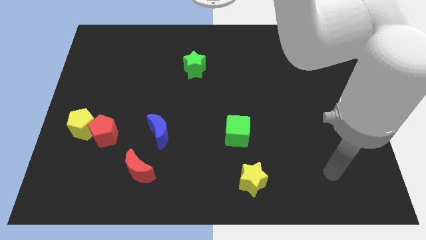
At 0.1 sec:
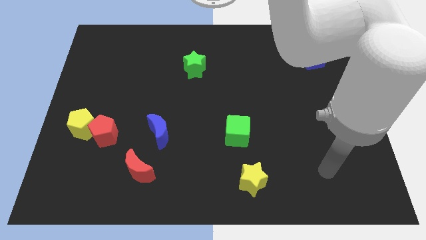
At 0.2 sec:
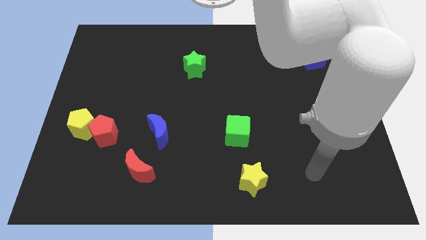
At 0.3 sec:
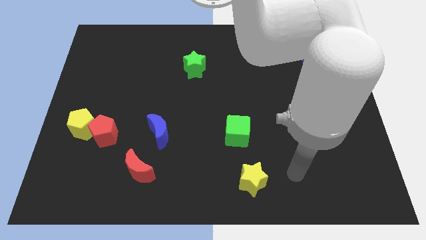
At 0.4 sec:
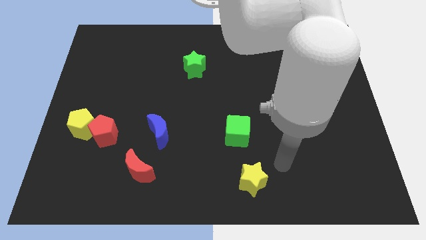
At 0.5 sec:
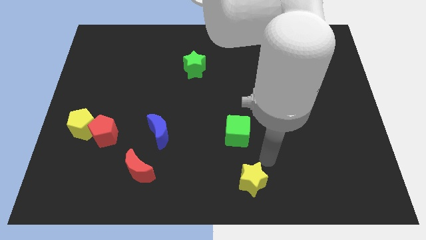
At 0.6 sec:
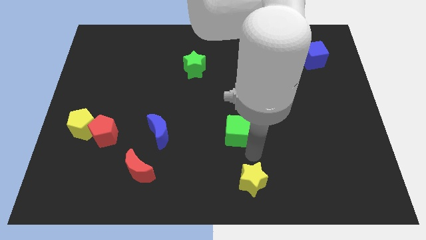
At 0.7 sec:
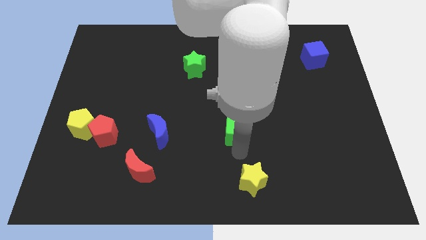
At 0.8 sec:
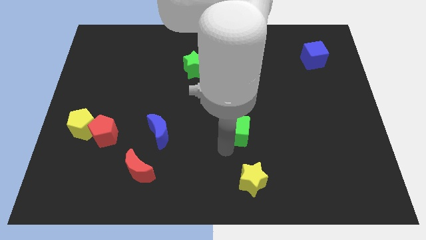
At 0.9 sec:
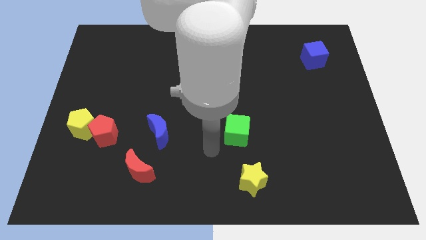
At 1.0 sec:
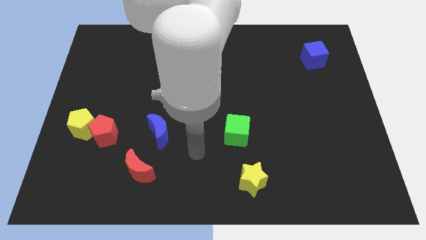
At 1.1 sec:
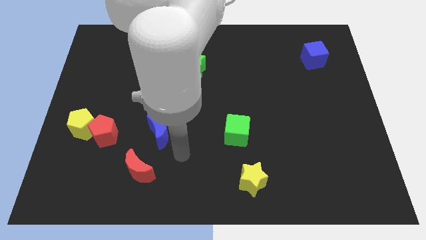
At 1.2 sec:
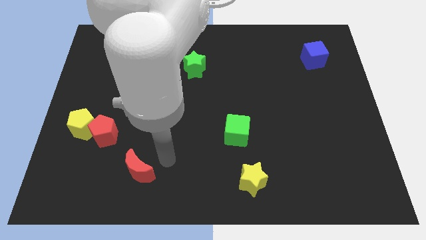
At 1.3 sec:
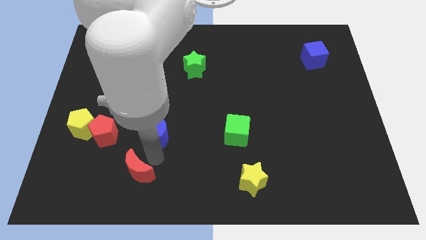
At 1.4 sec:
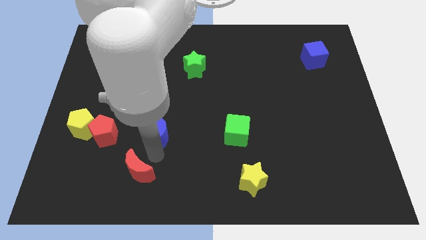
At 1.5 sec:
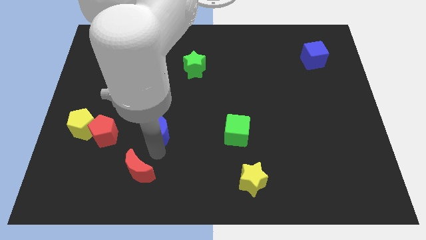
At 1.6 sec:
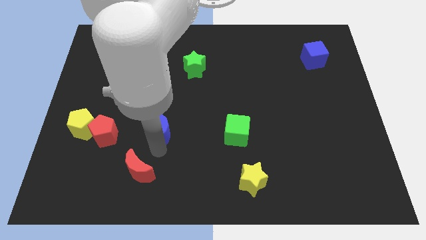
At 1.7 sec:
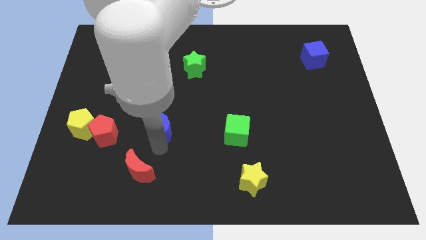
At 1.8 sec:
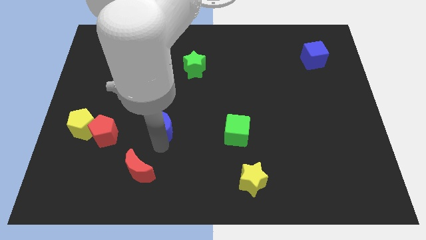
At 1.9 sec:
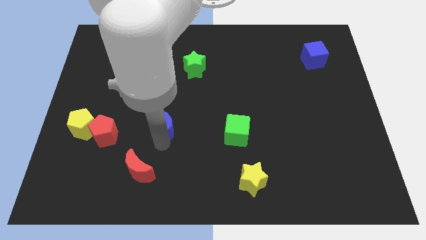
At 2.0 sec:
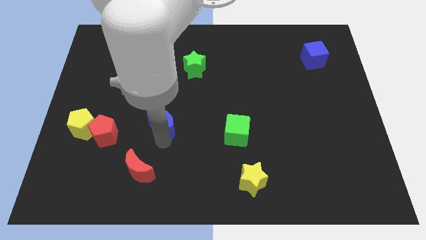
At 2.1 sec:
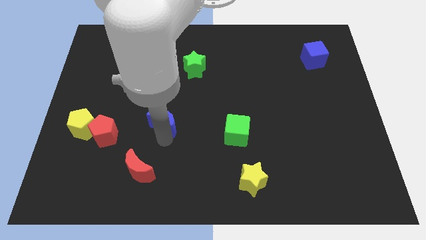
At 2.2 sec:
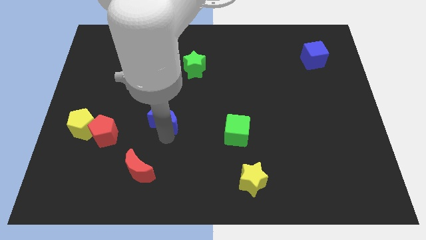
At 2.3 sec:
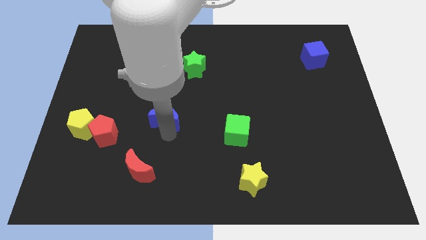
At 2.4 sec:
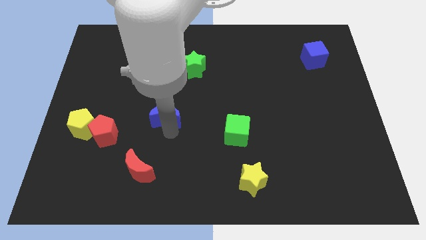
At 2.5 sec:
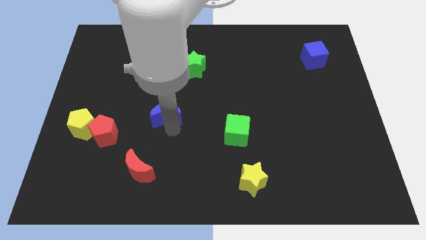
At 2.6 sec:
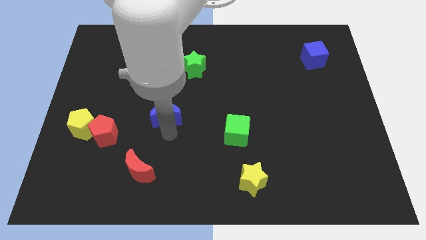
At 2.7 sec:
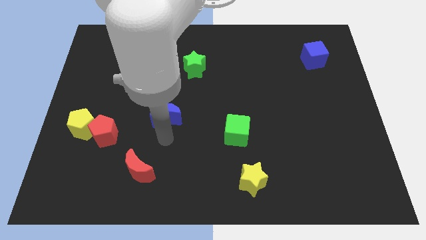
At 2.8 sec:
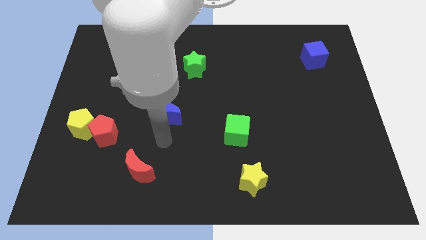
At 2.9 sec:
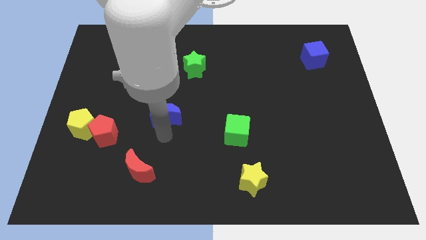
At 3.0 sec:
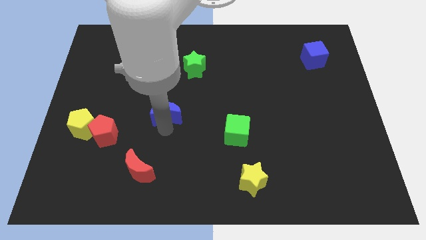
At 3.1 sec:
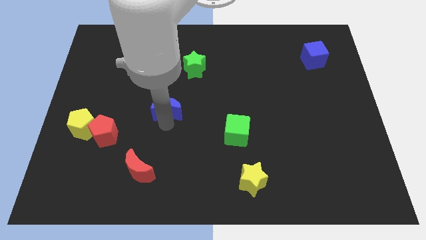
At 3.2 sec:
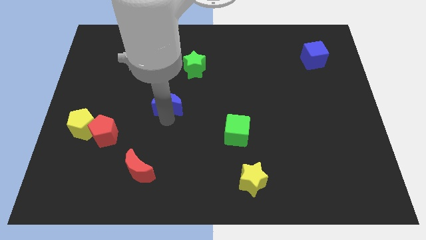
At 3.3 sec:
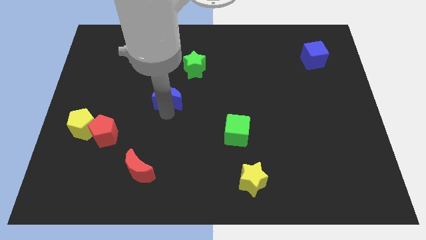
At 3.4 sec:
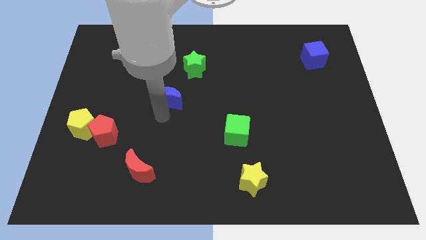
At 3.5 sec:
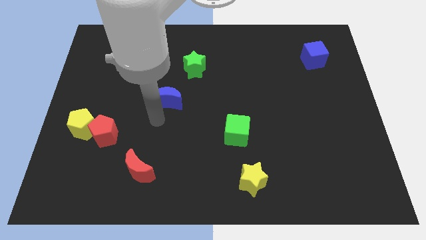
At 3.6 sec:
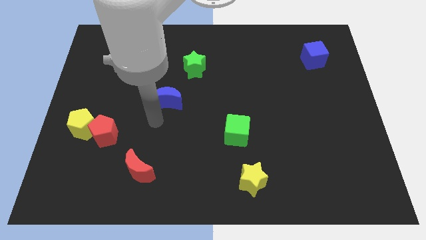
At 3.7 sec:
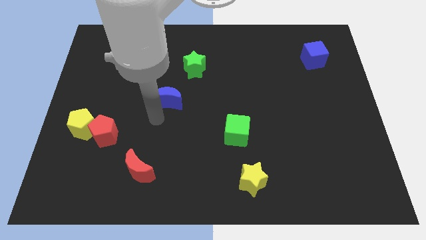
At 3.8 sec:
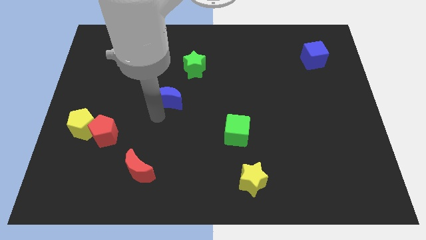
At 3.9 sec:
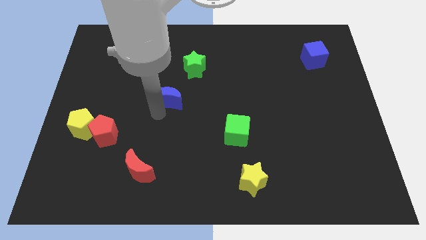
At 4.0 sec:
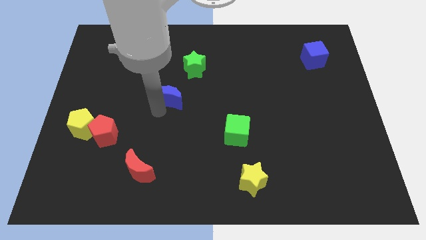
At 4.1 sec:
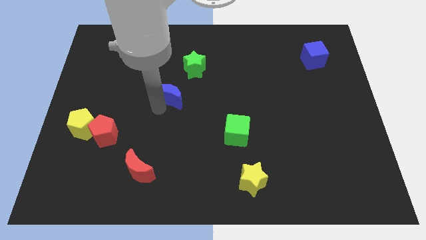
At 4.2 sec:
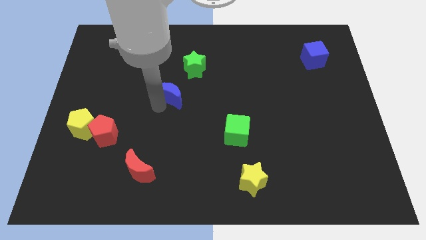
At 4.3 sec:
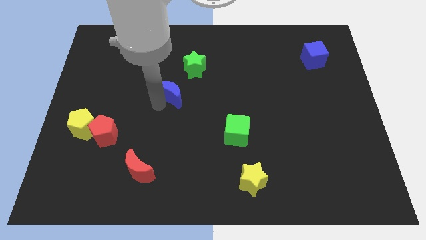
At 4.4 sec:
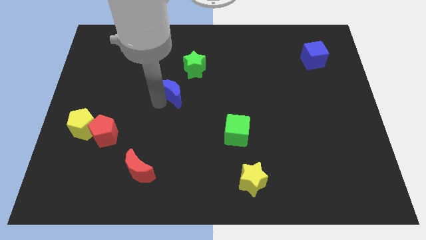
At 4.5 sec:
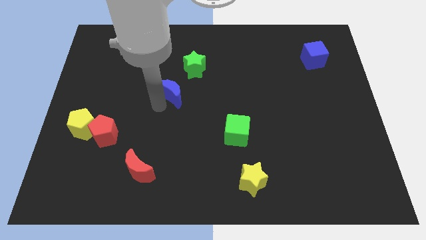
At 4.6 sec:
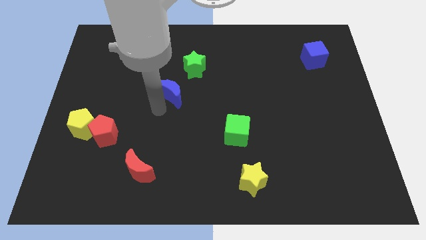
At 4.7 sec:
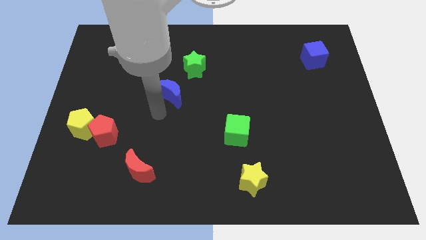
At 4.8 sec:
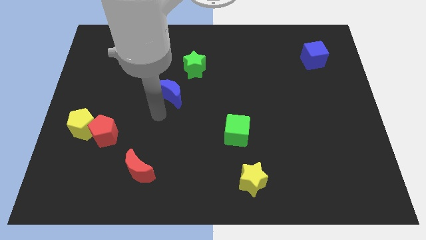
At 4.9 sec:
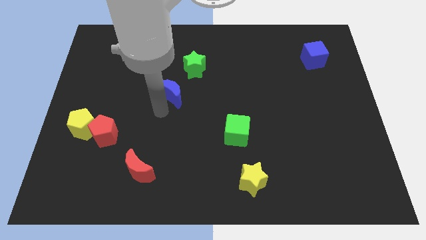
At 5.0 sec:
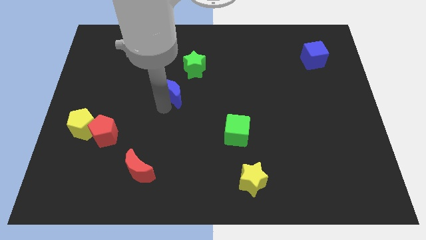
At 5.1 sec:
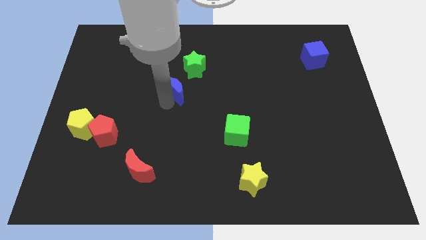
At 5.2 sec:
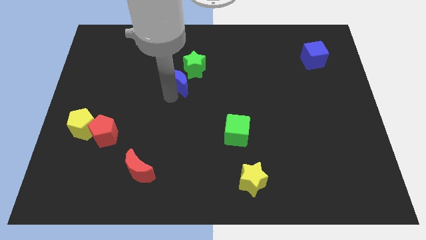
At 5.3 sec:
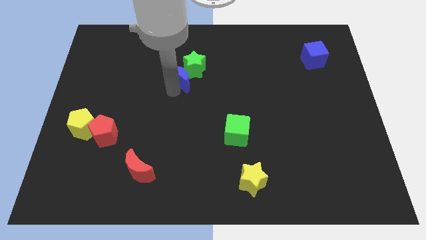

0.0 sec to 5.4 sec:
put the blue moon towards the green star
